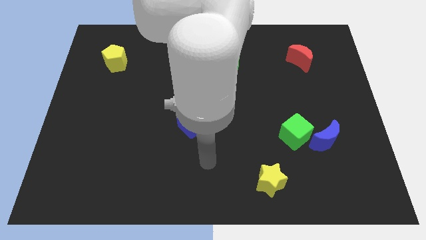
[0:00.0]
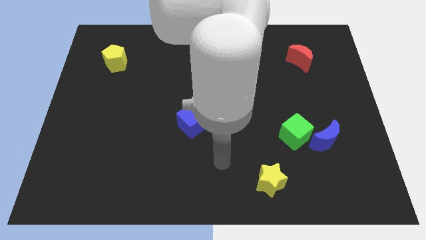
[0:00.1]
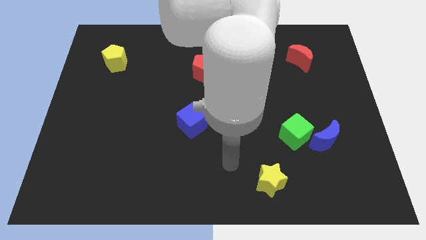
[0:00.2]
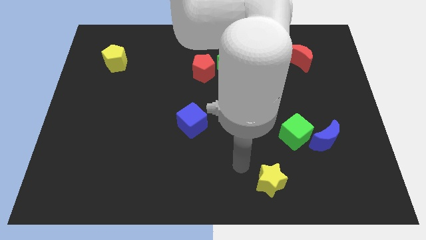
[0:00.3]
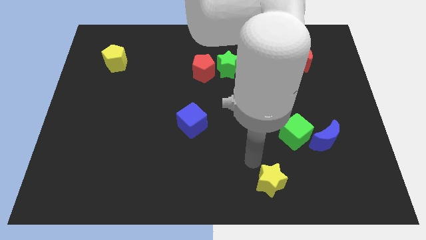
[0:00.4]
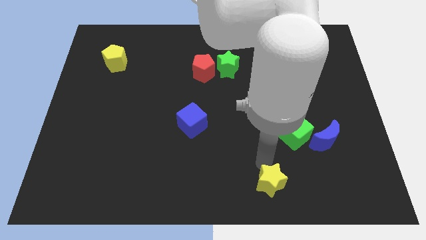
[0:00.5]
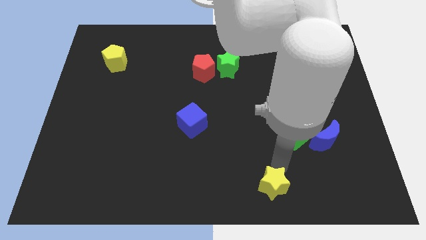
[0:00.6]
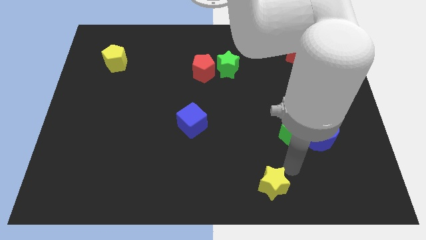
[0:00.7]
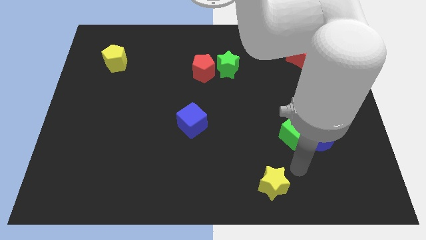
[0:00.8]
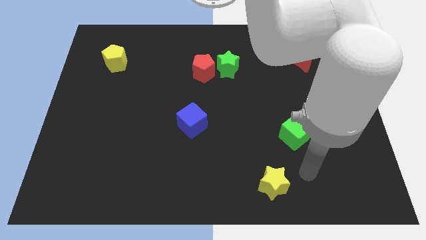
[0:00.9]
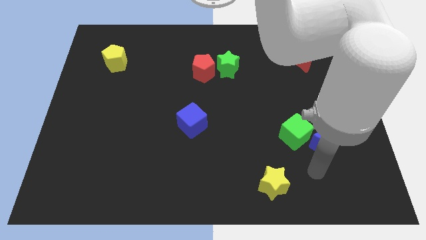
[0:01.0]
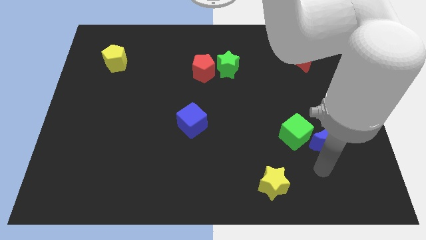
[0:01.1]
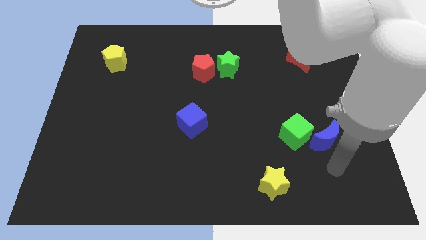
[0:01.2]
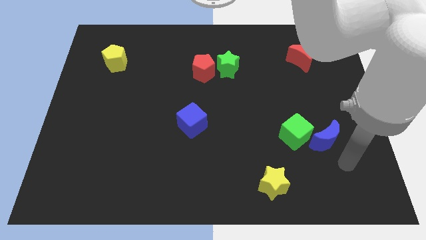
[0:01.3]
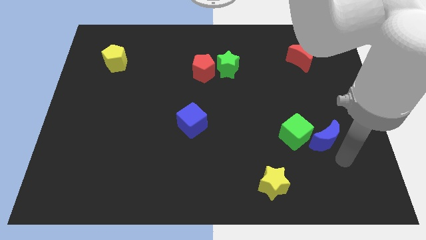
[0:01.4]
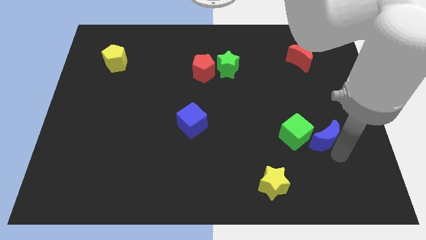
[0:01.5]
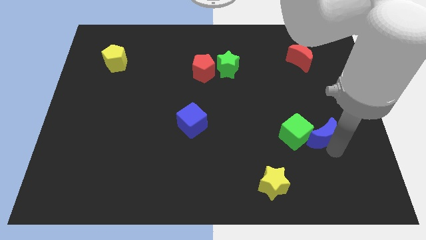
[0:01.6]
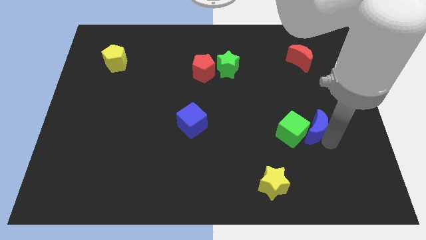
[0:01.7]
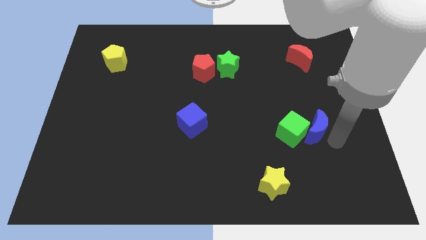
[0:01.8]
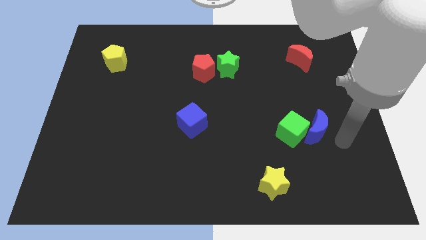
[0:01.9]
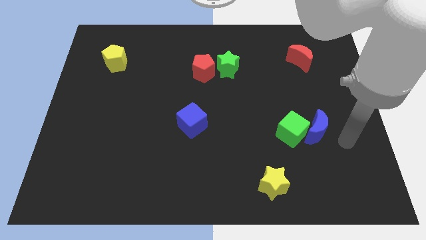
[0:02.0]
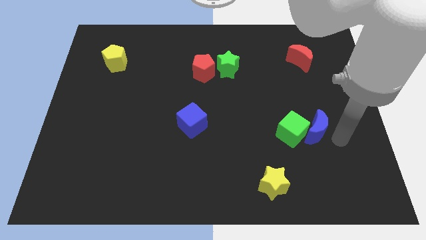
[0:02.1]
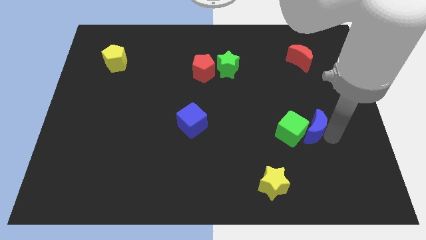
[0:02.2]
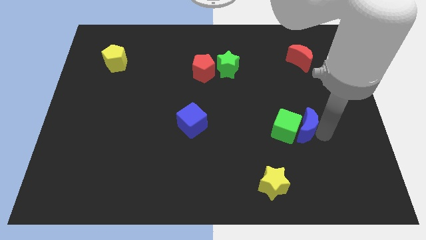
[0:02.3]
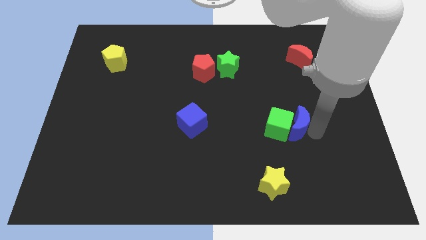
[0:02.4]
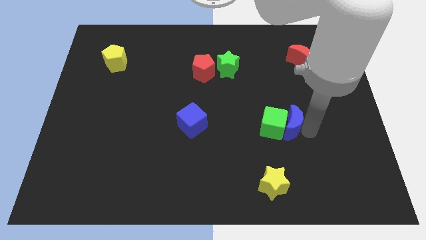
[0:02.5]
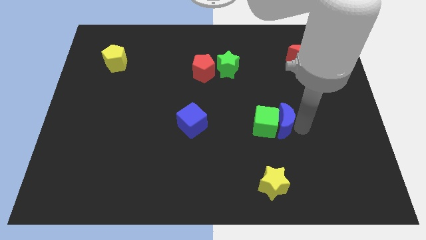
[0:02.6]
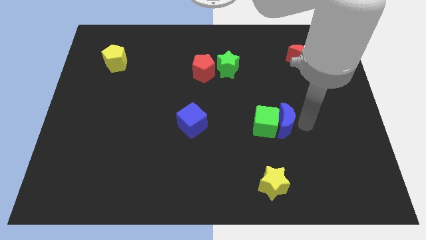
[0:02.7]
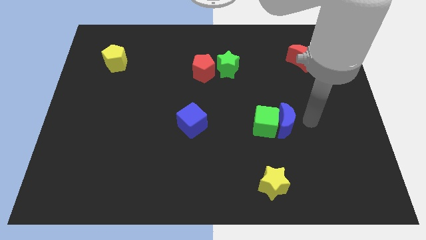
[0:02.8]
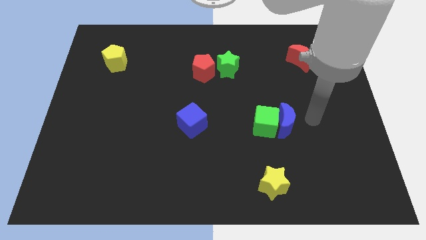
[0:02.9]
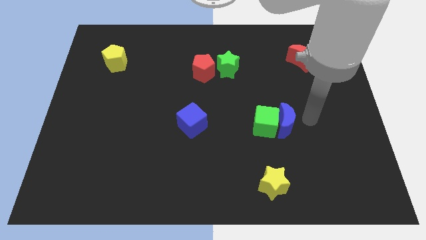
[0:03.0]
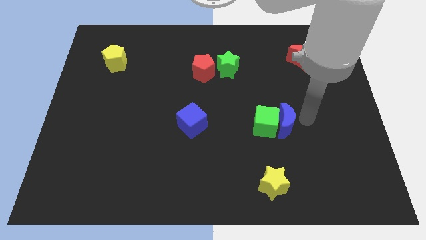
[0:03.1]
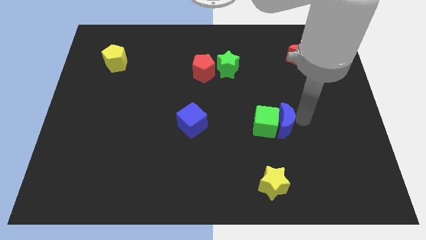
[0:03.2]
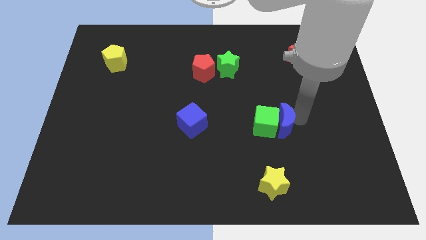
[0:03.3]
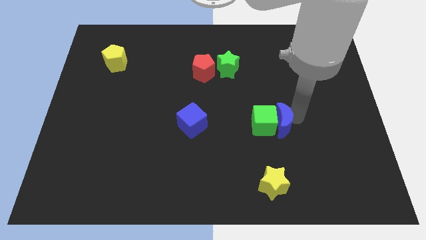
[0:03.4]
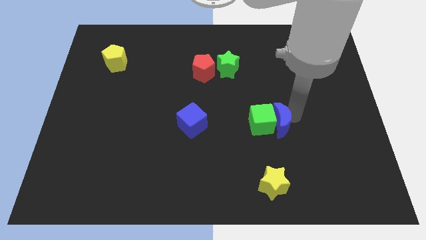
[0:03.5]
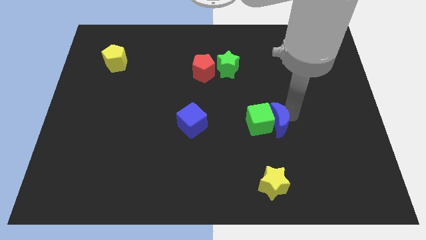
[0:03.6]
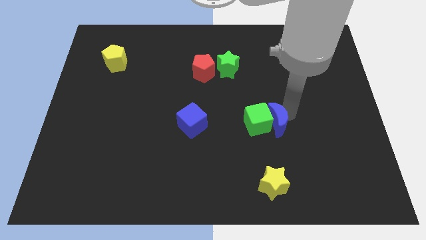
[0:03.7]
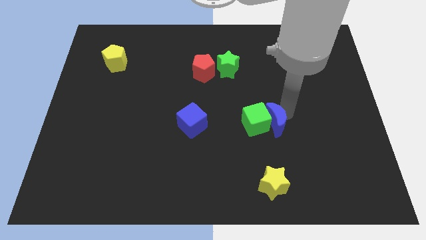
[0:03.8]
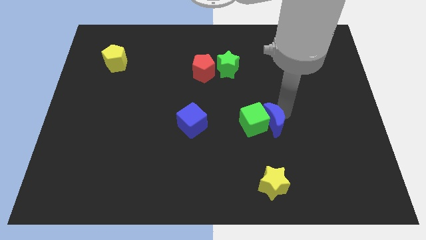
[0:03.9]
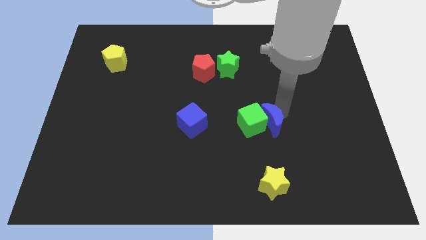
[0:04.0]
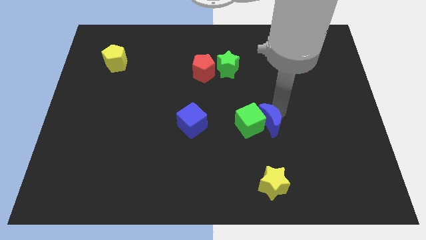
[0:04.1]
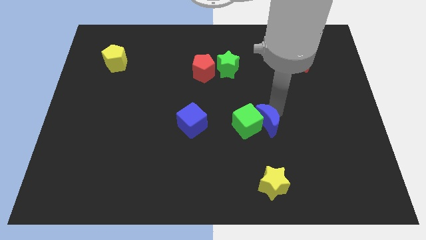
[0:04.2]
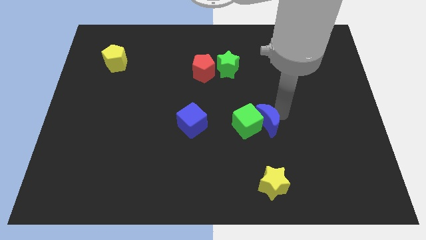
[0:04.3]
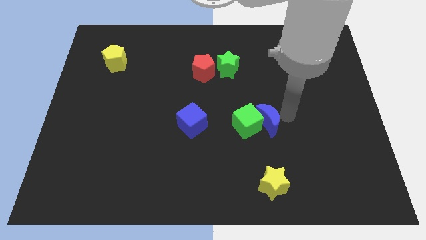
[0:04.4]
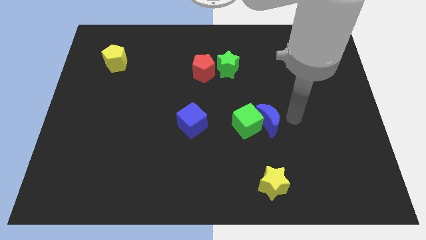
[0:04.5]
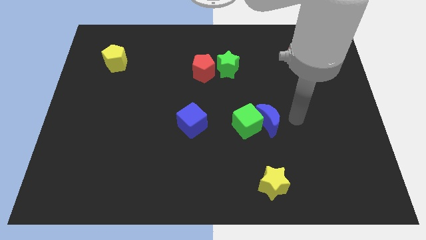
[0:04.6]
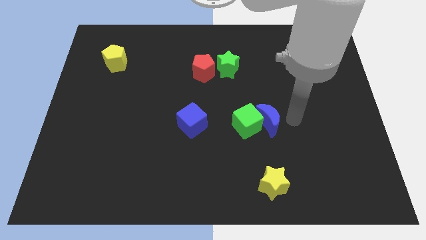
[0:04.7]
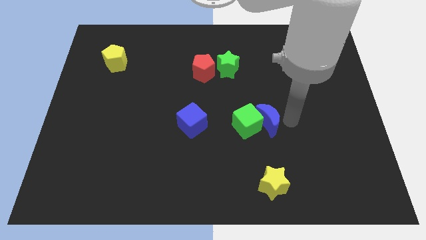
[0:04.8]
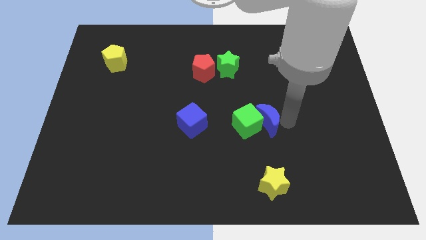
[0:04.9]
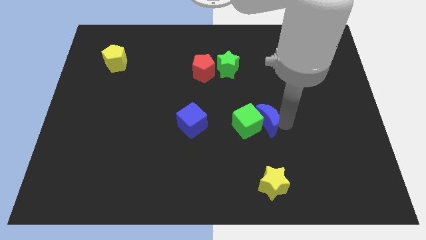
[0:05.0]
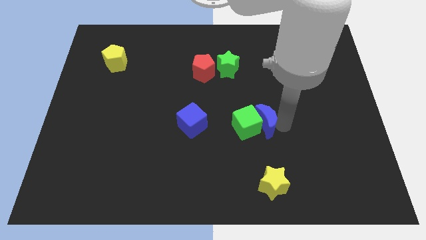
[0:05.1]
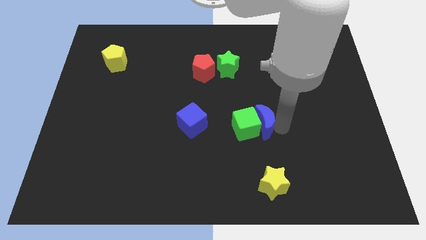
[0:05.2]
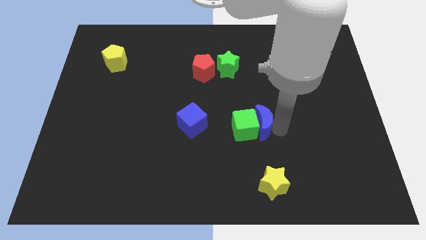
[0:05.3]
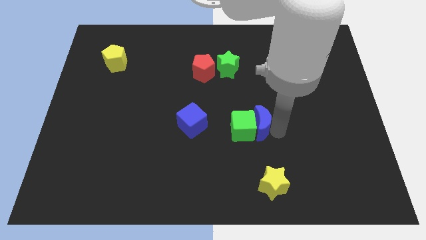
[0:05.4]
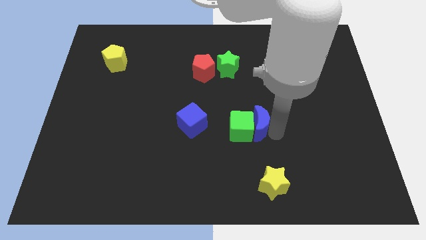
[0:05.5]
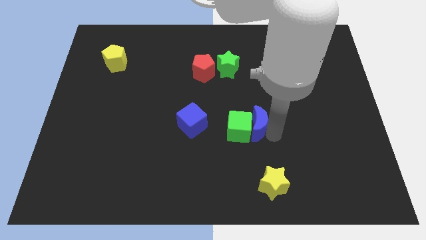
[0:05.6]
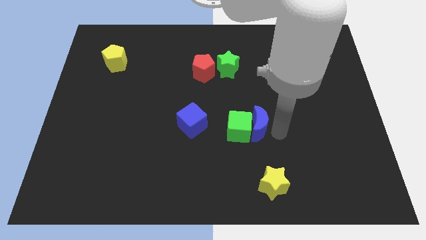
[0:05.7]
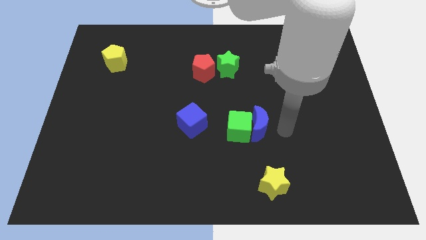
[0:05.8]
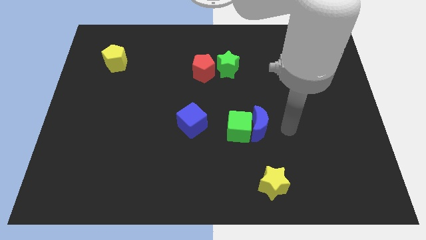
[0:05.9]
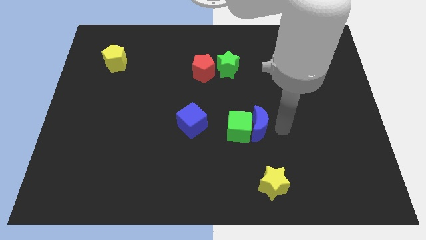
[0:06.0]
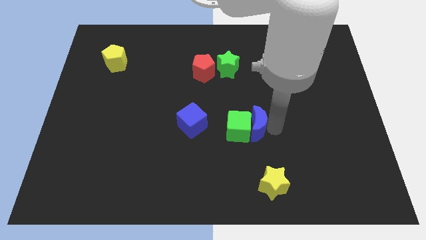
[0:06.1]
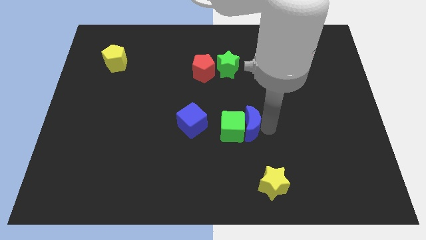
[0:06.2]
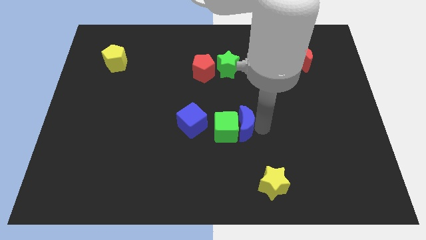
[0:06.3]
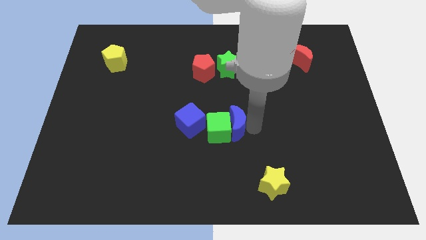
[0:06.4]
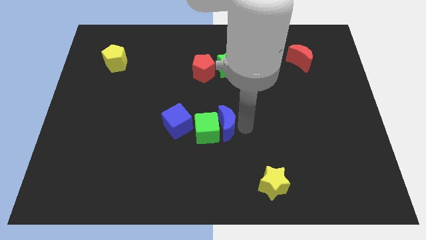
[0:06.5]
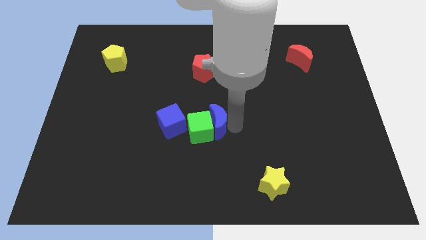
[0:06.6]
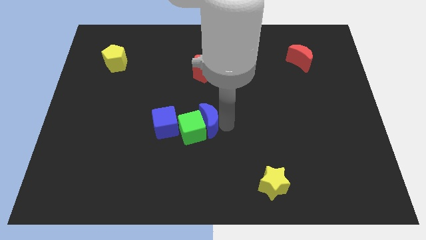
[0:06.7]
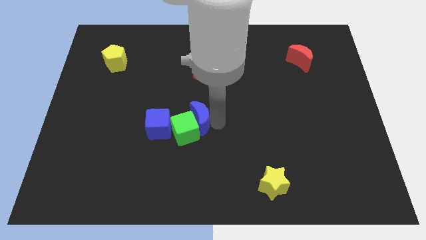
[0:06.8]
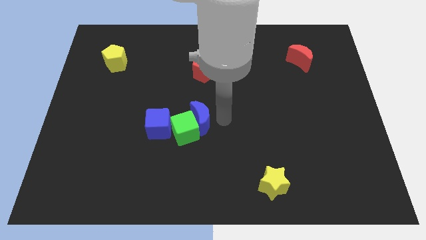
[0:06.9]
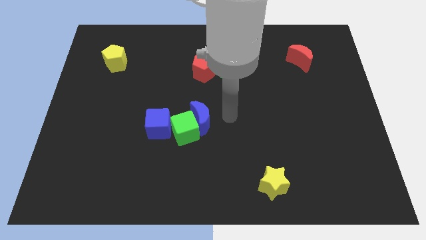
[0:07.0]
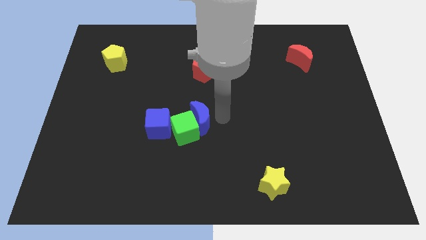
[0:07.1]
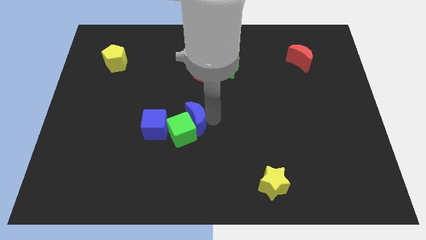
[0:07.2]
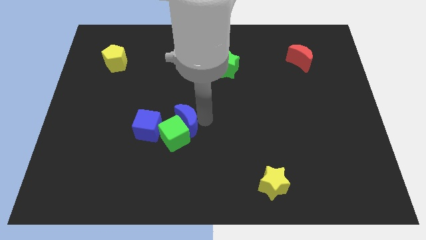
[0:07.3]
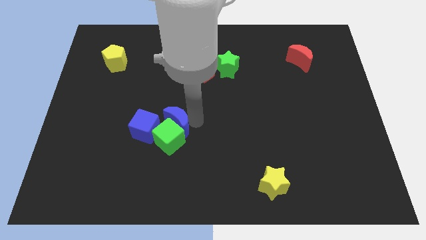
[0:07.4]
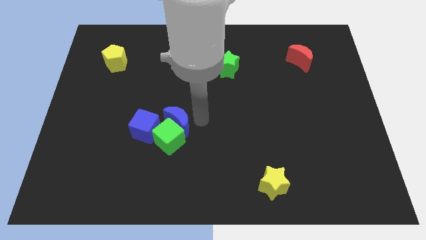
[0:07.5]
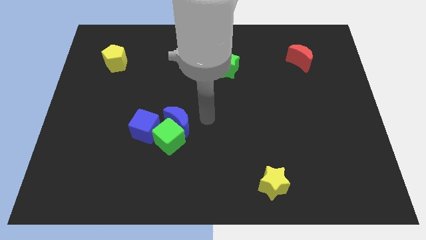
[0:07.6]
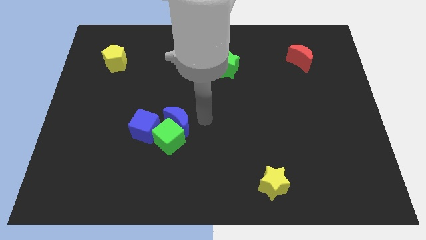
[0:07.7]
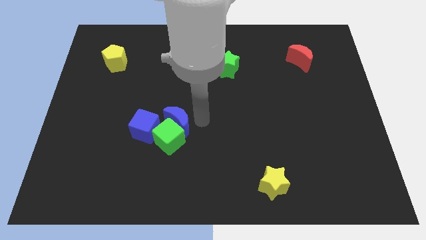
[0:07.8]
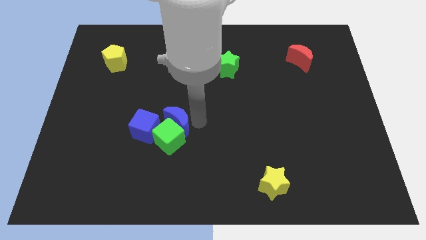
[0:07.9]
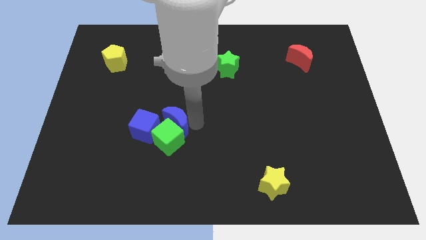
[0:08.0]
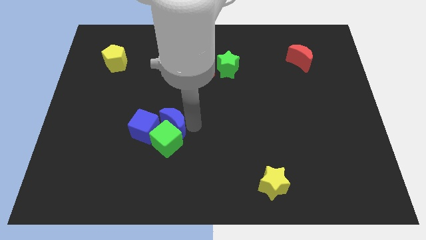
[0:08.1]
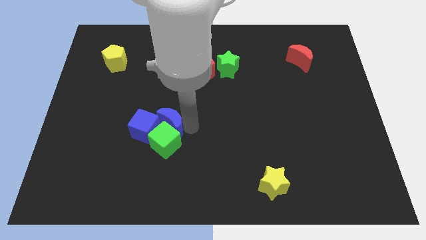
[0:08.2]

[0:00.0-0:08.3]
move the blue moon to the blue cube
